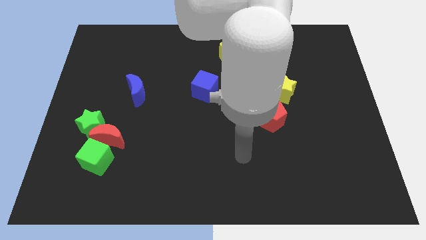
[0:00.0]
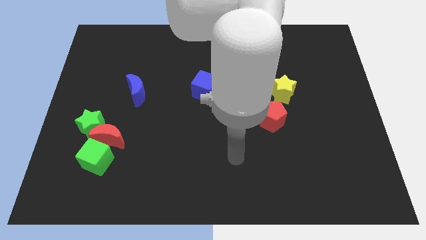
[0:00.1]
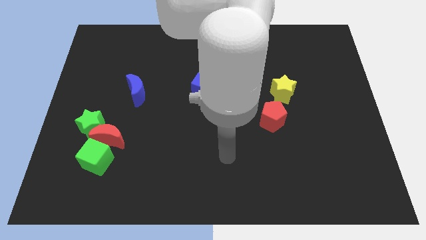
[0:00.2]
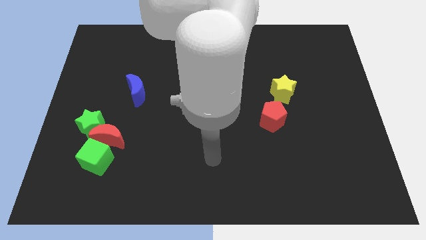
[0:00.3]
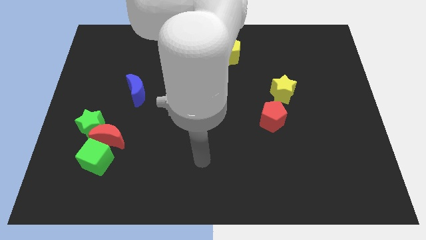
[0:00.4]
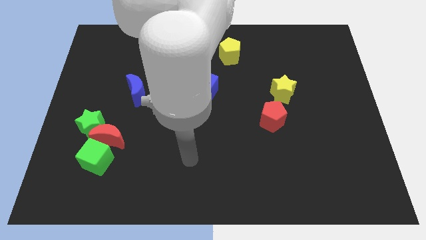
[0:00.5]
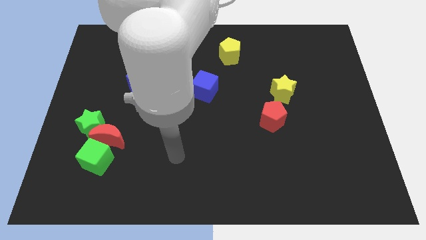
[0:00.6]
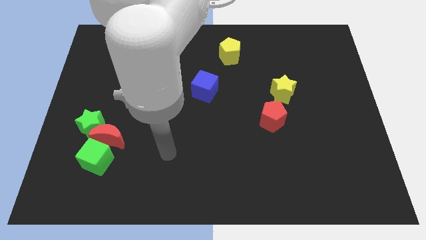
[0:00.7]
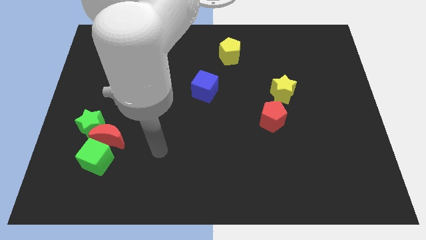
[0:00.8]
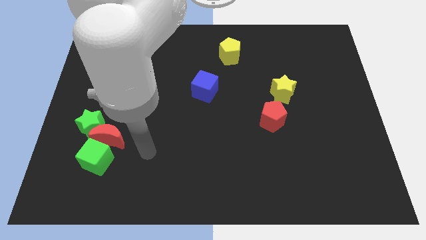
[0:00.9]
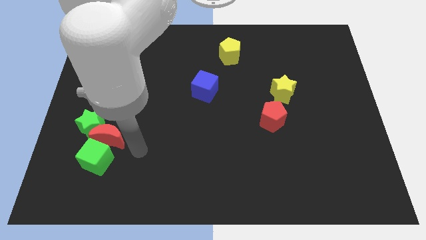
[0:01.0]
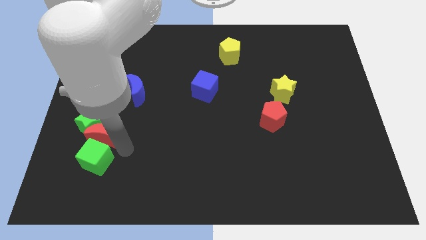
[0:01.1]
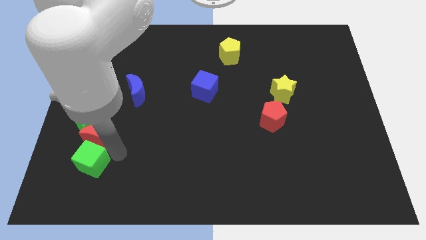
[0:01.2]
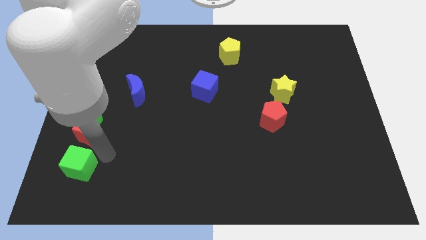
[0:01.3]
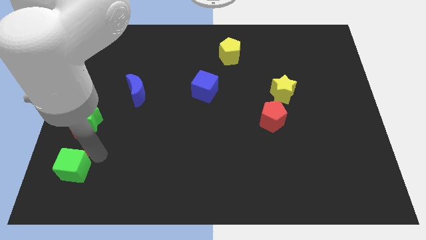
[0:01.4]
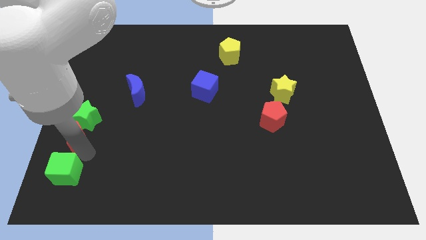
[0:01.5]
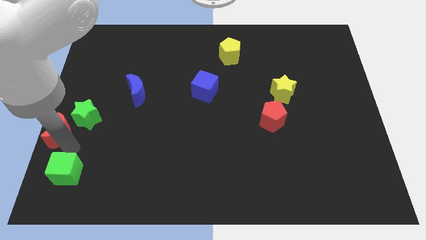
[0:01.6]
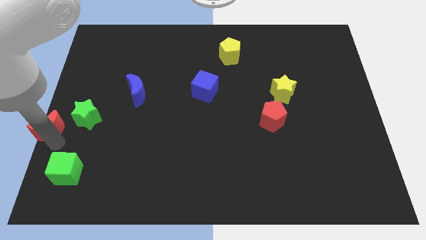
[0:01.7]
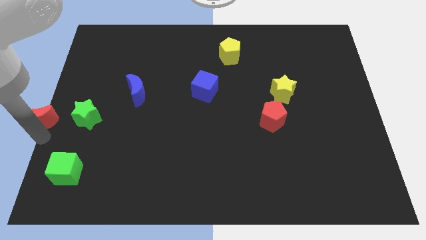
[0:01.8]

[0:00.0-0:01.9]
separate the red moon from the green star and green cube

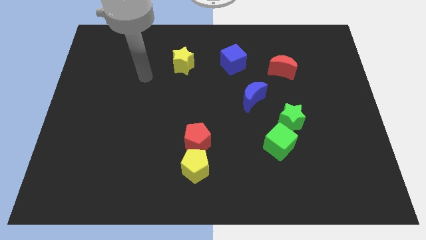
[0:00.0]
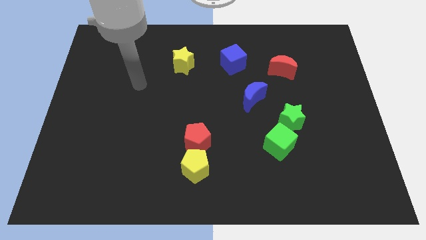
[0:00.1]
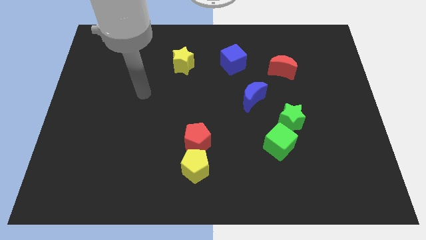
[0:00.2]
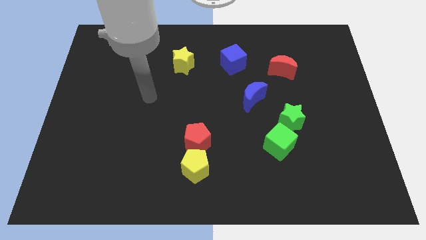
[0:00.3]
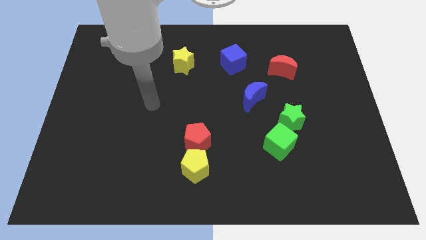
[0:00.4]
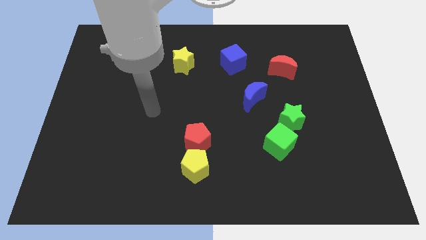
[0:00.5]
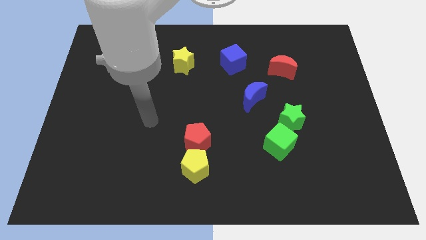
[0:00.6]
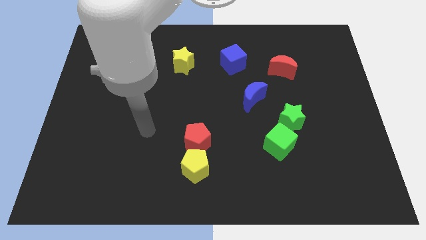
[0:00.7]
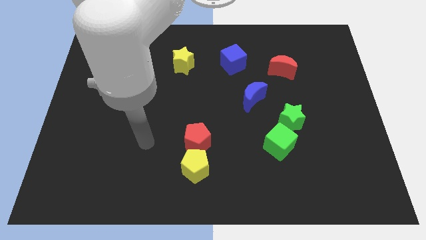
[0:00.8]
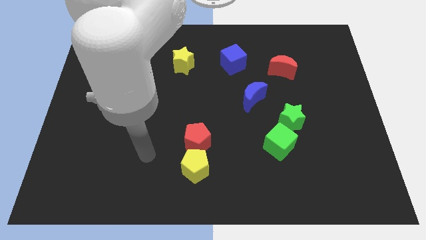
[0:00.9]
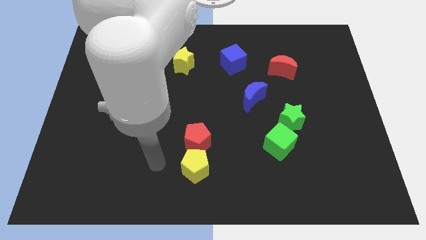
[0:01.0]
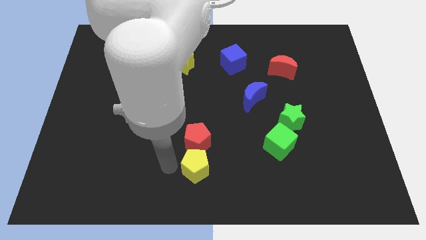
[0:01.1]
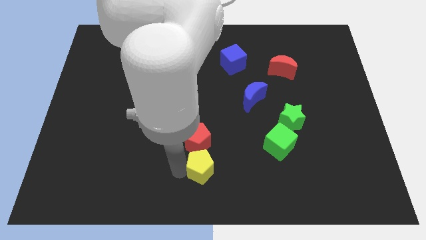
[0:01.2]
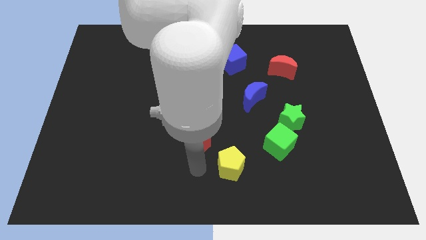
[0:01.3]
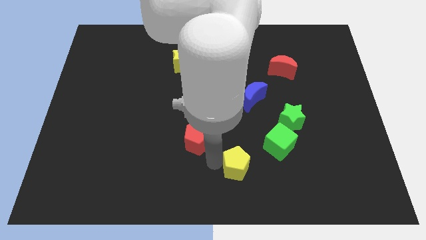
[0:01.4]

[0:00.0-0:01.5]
separate the red pentagon from the yellow pentagon

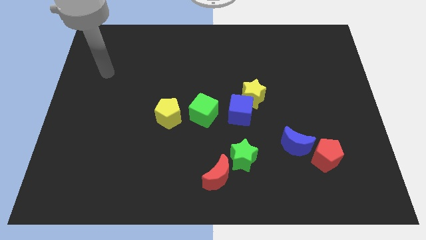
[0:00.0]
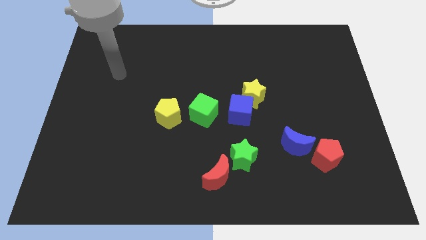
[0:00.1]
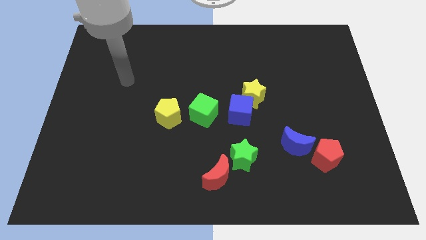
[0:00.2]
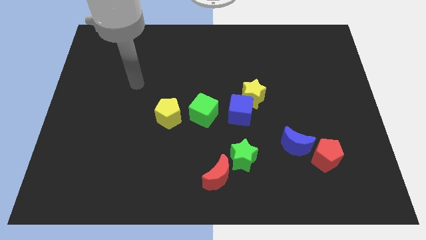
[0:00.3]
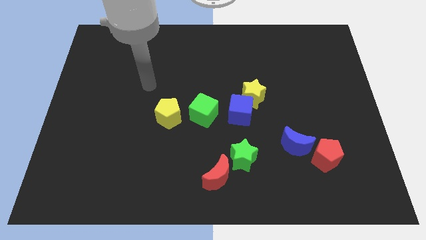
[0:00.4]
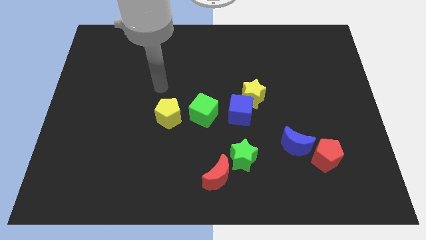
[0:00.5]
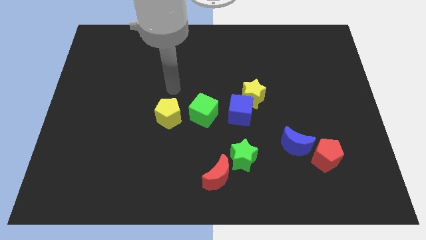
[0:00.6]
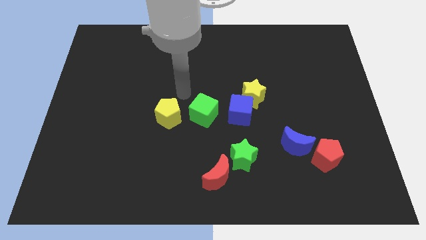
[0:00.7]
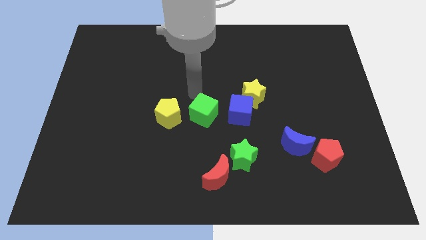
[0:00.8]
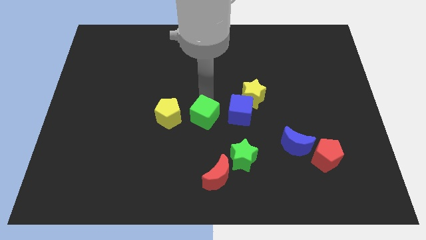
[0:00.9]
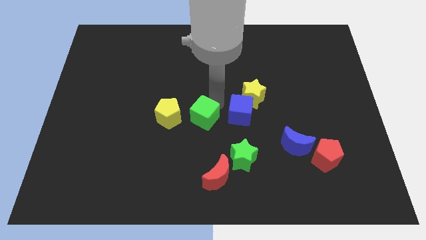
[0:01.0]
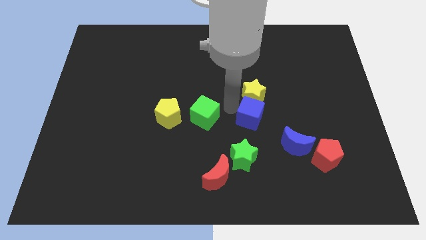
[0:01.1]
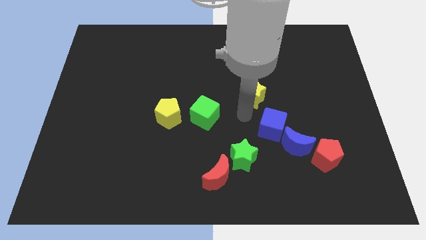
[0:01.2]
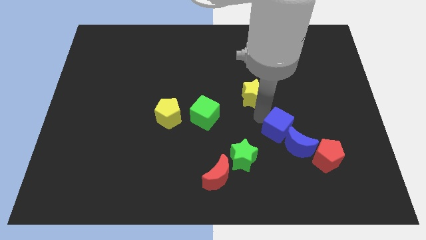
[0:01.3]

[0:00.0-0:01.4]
move the yellow star away from the blue cube

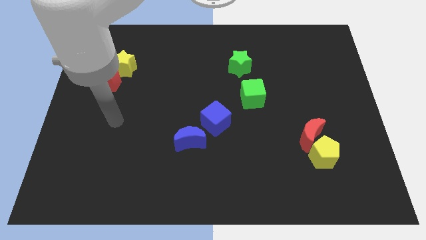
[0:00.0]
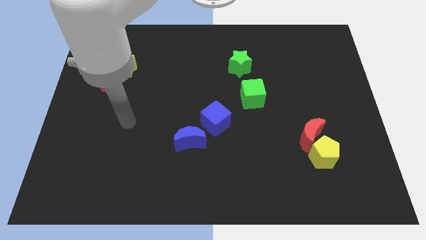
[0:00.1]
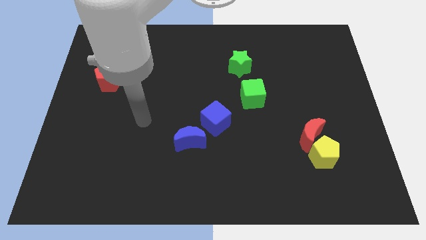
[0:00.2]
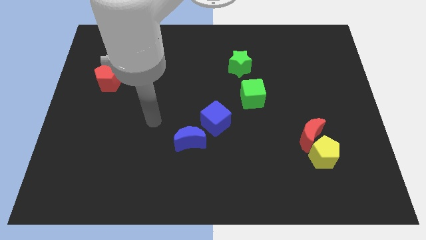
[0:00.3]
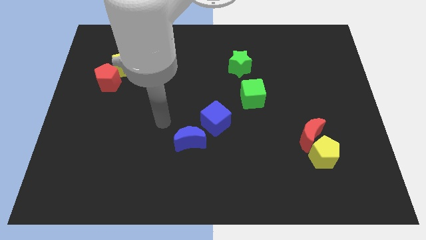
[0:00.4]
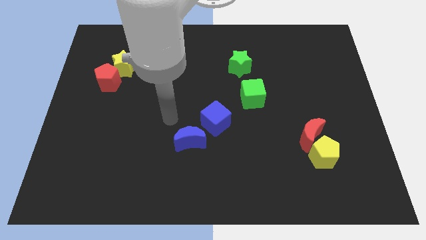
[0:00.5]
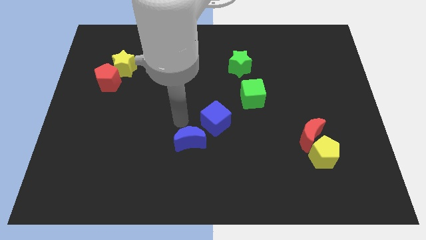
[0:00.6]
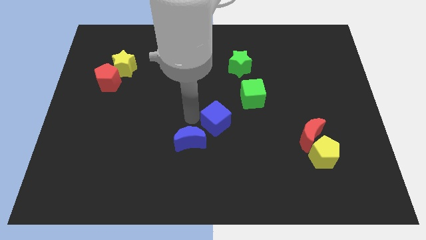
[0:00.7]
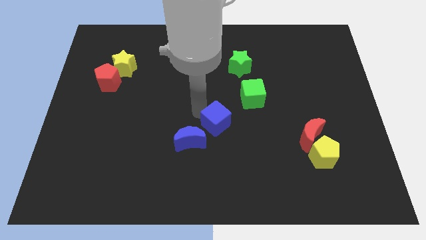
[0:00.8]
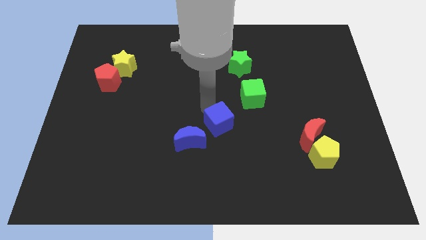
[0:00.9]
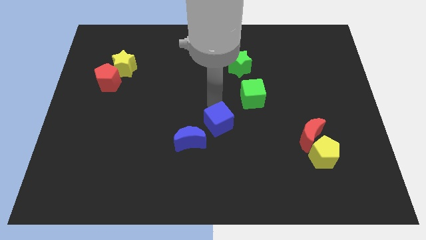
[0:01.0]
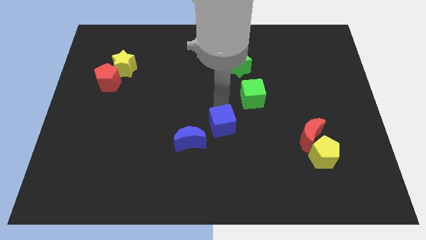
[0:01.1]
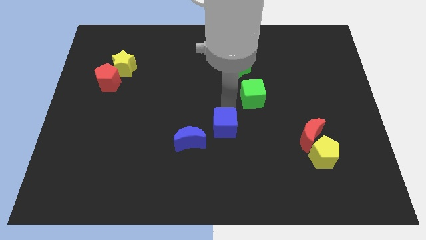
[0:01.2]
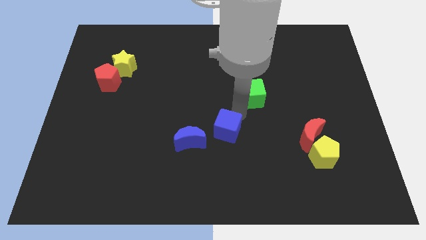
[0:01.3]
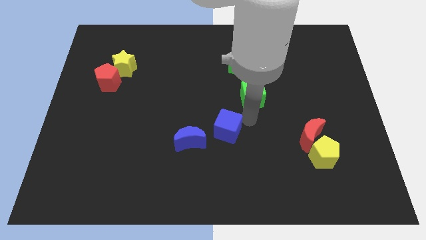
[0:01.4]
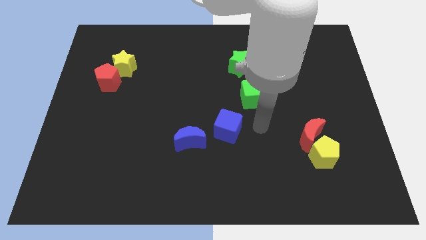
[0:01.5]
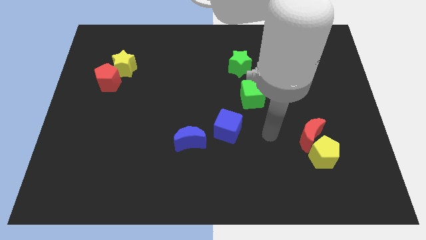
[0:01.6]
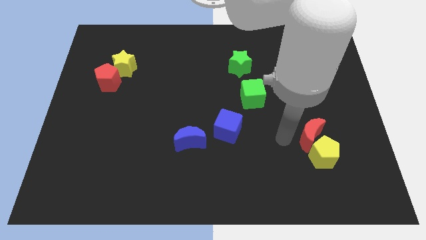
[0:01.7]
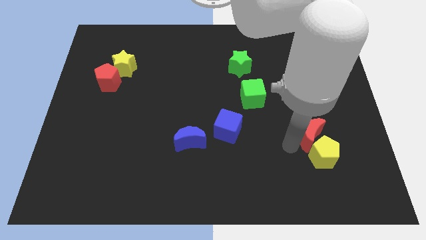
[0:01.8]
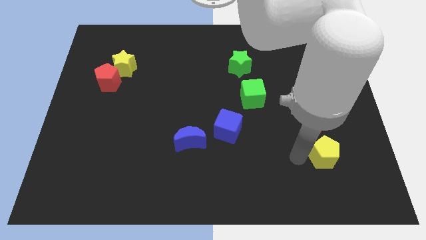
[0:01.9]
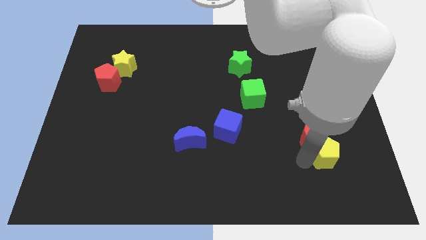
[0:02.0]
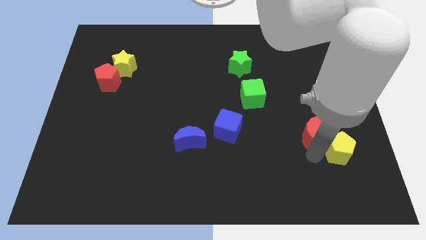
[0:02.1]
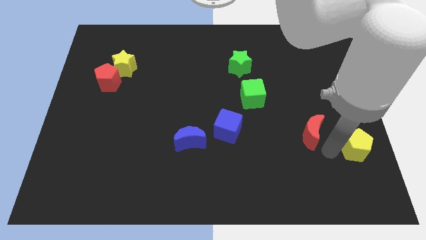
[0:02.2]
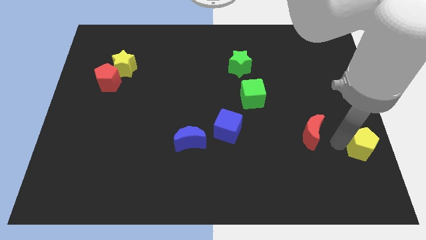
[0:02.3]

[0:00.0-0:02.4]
move the red moon away from the yellow pentagon

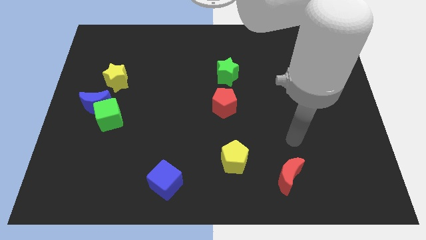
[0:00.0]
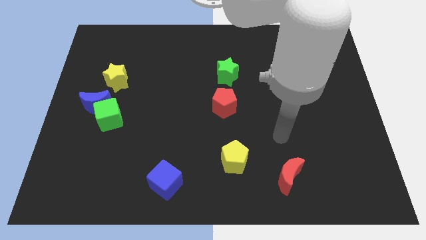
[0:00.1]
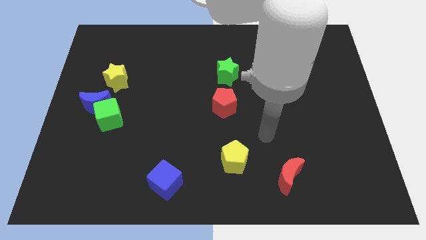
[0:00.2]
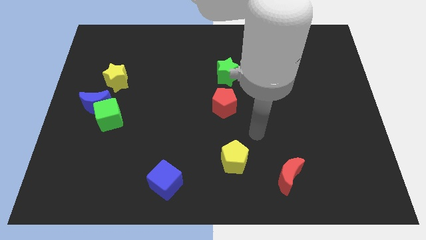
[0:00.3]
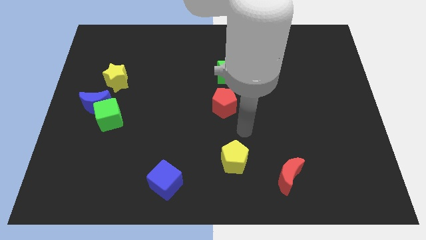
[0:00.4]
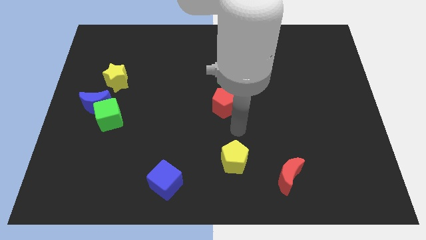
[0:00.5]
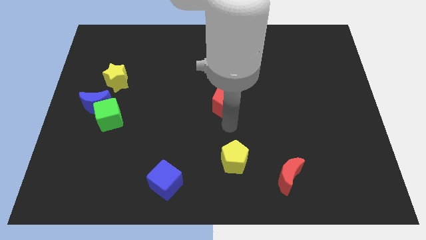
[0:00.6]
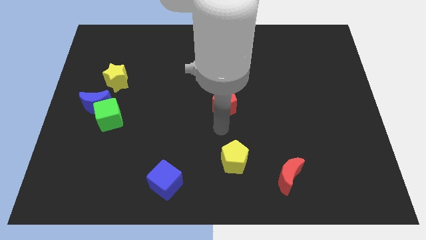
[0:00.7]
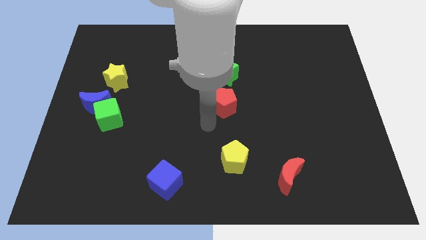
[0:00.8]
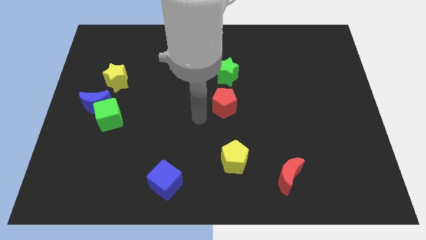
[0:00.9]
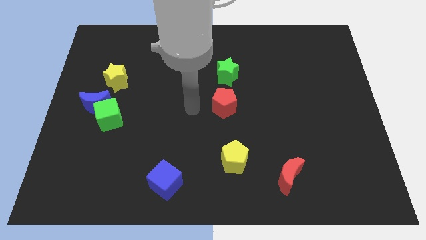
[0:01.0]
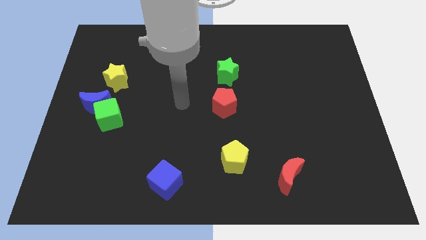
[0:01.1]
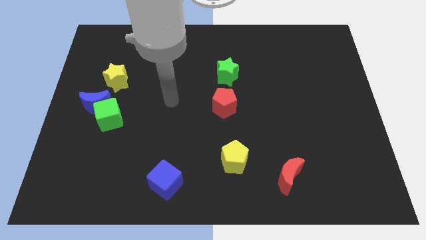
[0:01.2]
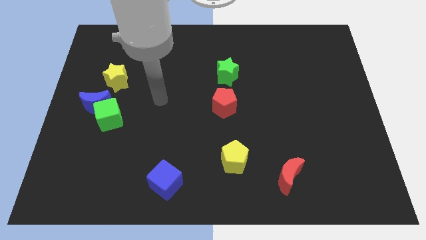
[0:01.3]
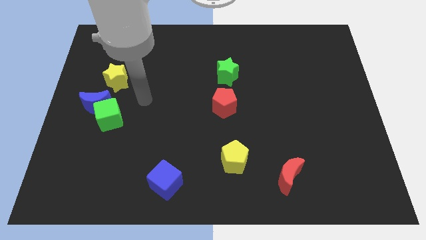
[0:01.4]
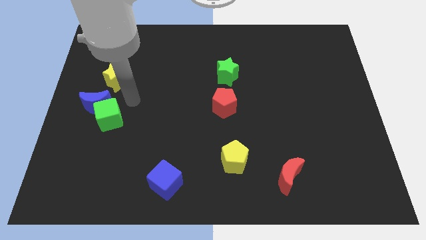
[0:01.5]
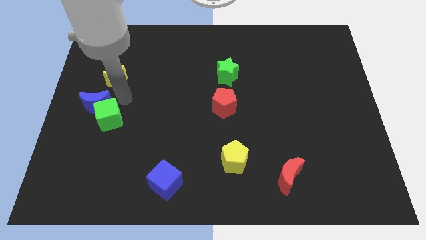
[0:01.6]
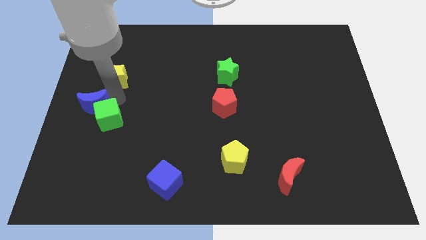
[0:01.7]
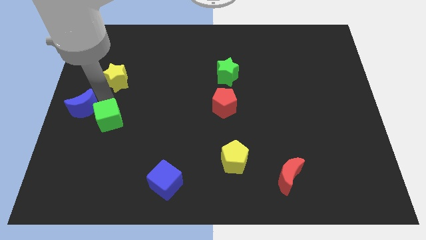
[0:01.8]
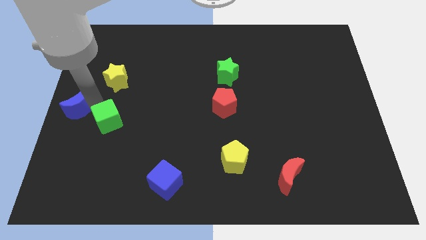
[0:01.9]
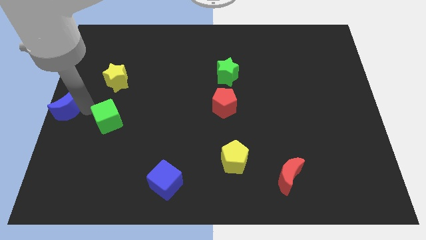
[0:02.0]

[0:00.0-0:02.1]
separate the green cube from the blue moon
